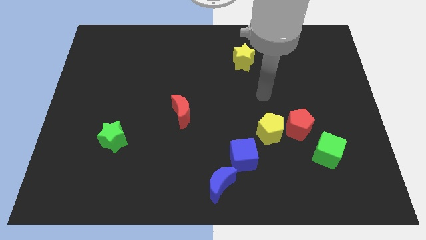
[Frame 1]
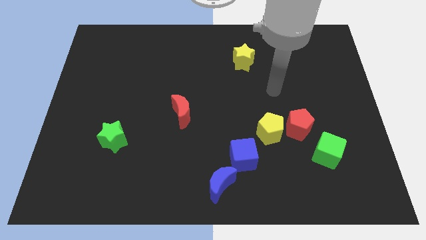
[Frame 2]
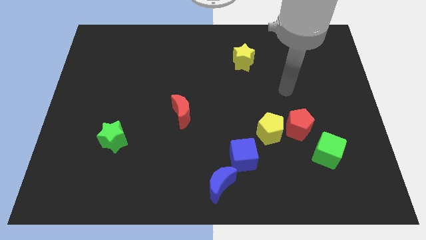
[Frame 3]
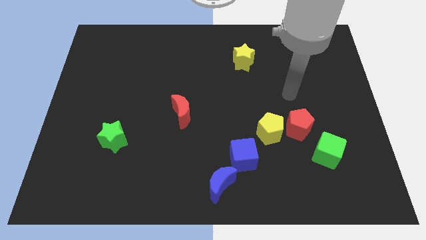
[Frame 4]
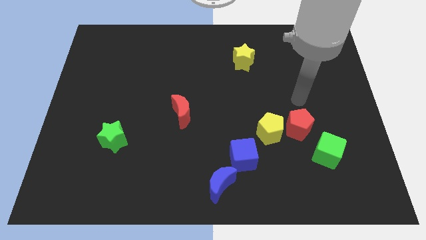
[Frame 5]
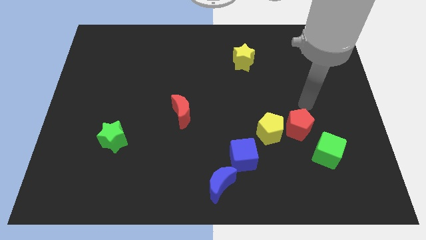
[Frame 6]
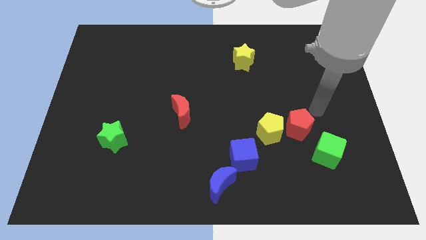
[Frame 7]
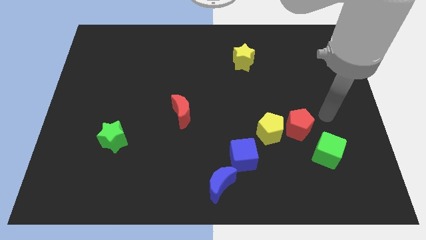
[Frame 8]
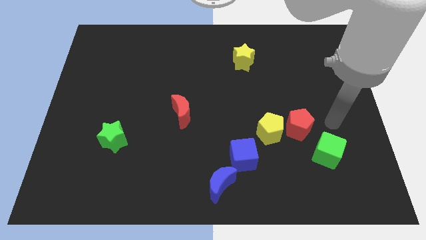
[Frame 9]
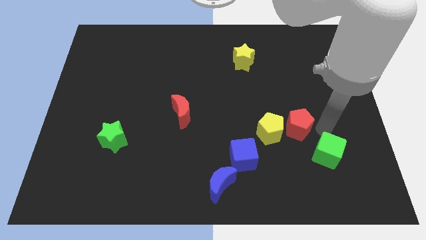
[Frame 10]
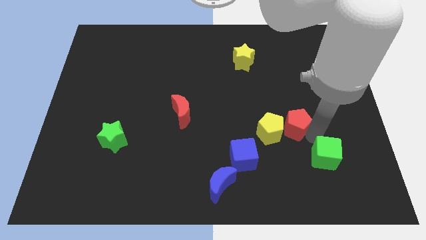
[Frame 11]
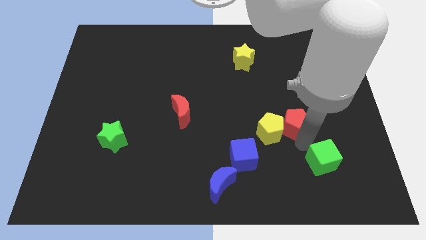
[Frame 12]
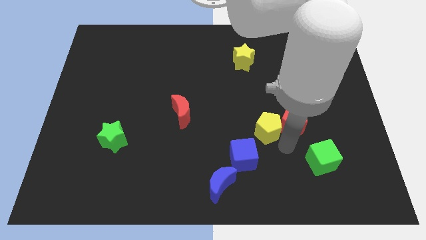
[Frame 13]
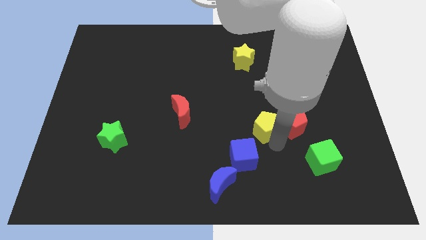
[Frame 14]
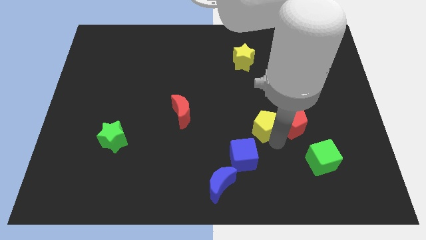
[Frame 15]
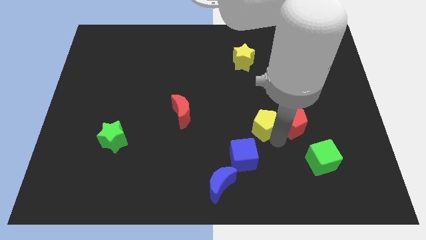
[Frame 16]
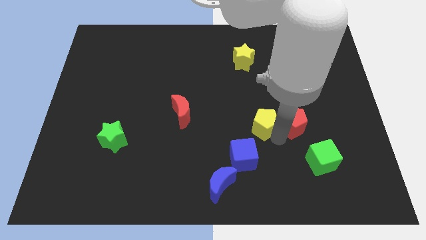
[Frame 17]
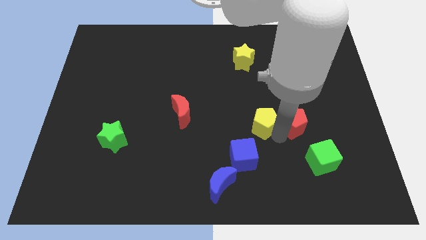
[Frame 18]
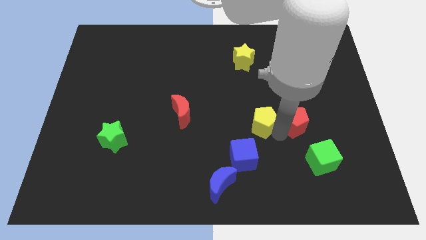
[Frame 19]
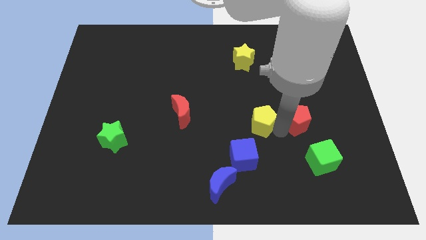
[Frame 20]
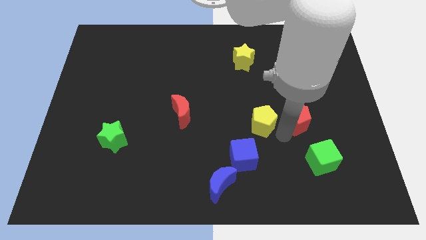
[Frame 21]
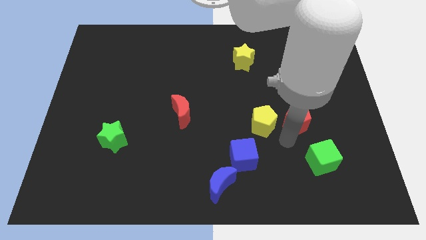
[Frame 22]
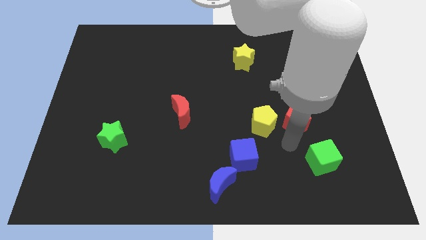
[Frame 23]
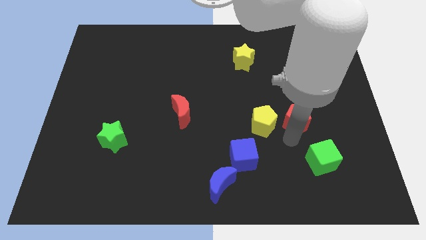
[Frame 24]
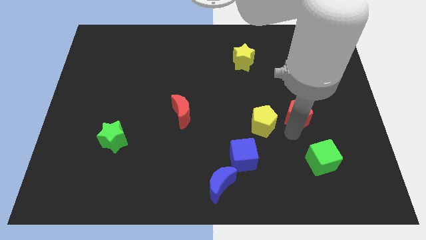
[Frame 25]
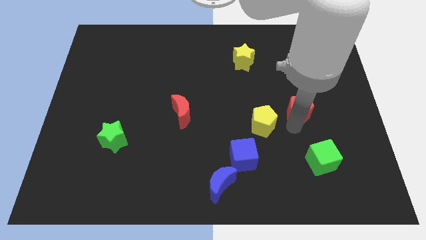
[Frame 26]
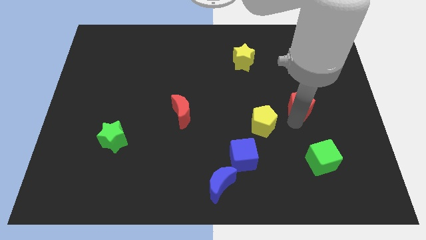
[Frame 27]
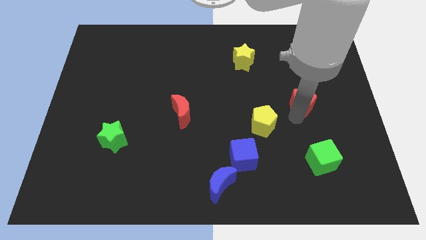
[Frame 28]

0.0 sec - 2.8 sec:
pull the red pentagon apart from the yellow pentagon and green cube

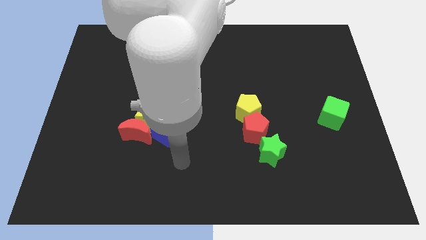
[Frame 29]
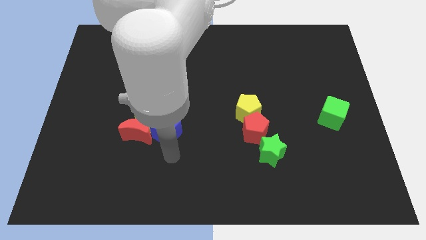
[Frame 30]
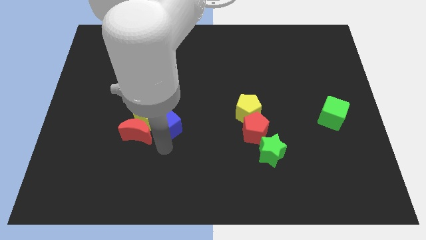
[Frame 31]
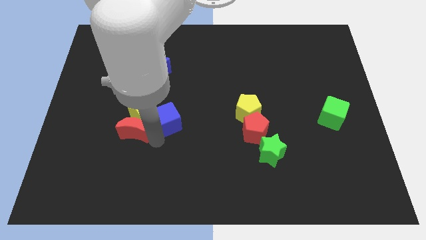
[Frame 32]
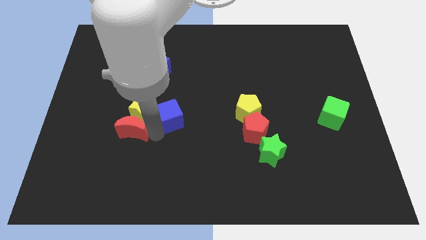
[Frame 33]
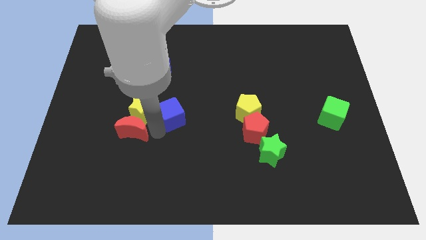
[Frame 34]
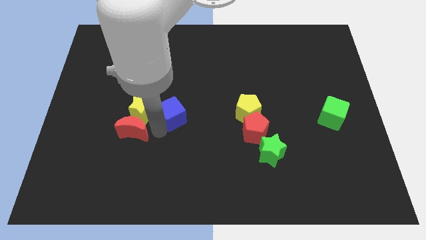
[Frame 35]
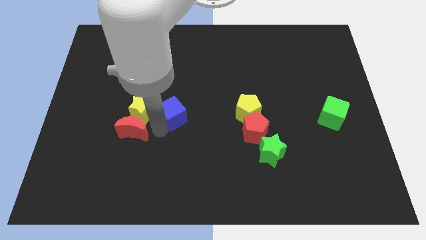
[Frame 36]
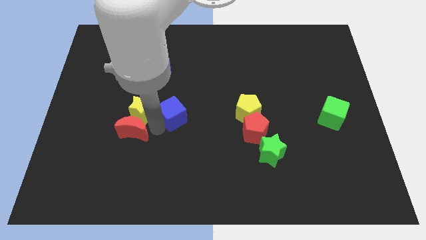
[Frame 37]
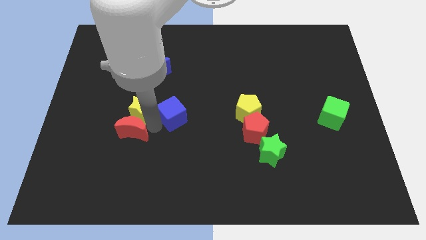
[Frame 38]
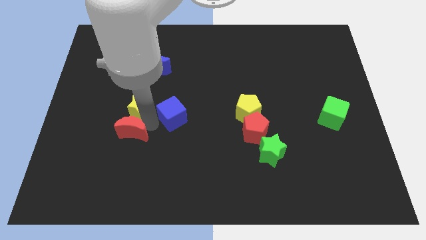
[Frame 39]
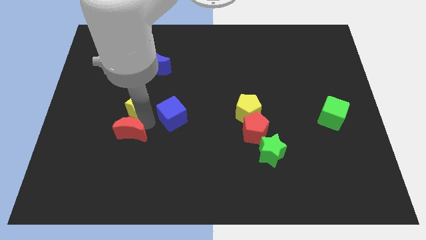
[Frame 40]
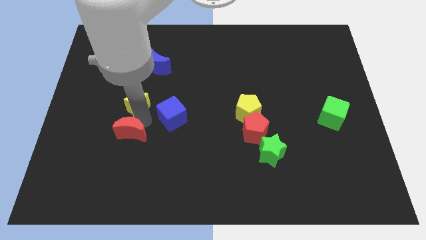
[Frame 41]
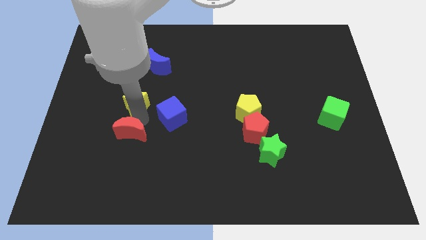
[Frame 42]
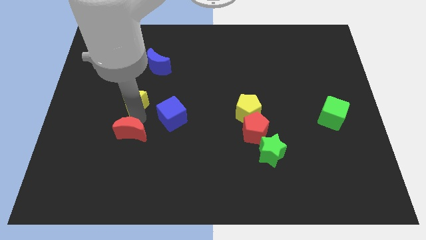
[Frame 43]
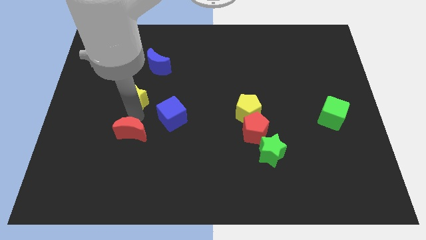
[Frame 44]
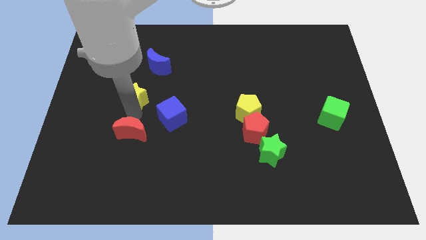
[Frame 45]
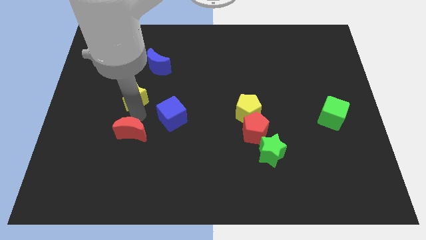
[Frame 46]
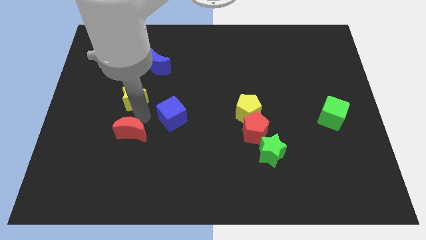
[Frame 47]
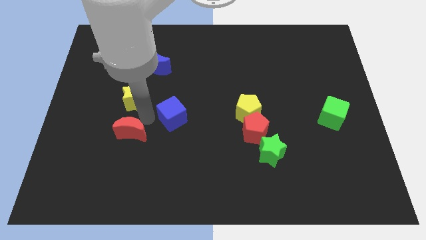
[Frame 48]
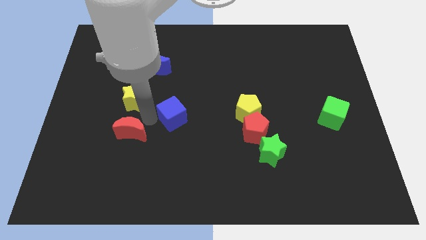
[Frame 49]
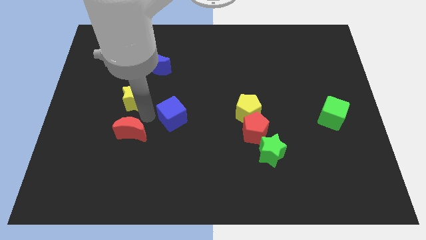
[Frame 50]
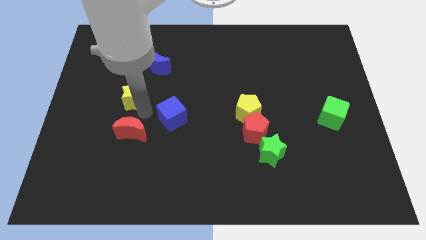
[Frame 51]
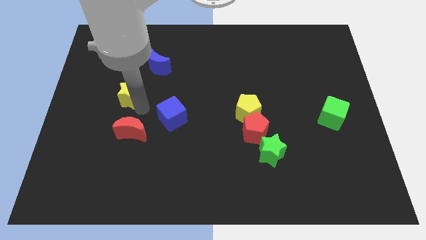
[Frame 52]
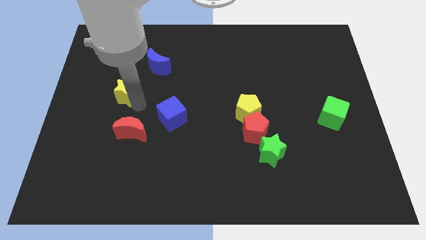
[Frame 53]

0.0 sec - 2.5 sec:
pull the yellow star apart from the red moon and blue cube

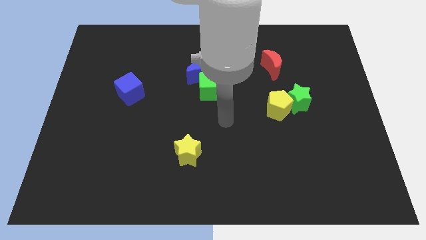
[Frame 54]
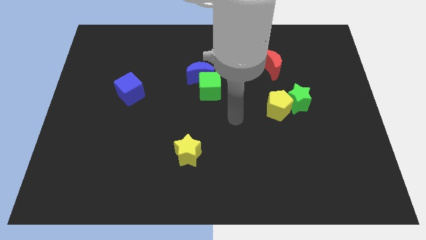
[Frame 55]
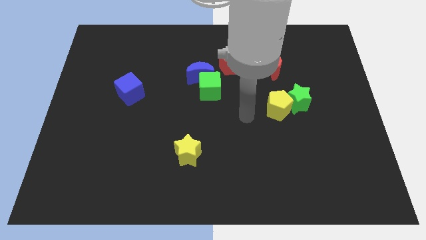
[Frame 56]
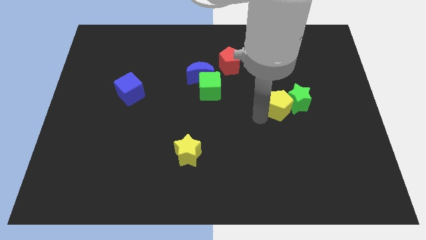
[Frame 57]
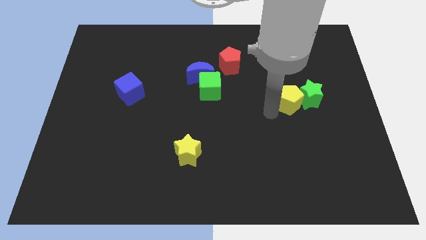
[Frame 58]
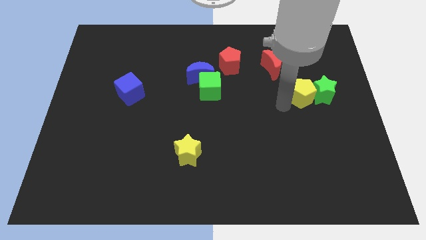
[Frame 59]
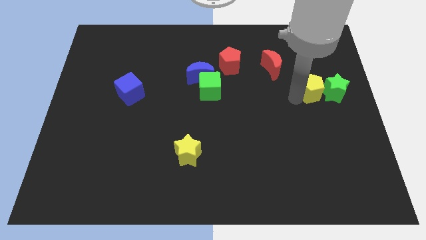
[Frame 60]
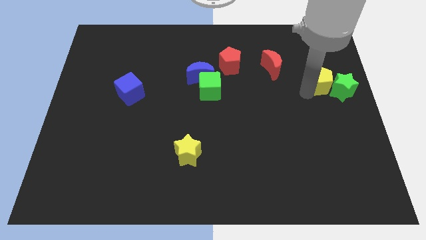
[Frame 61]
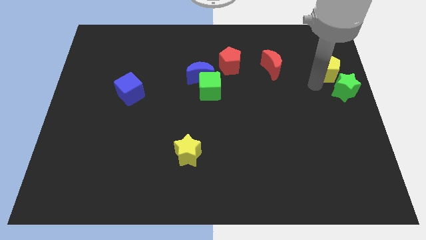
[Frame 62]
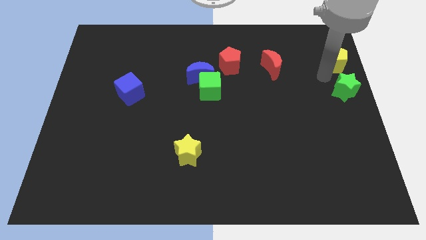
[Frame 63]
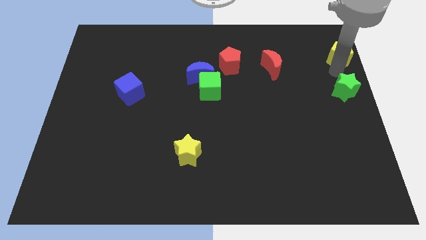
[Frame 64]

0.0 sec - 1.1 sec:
pull the green star apart from the yellow pentagon

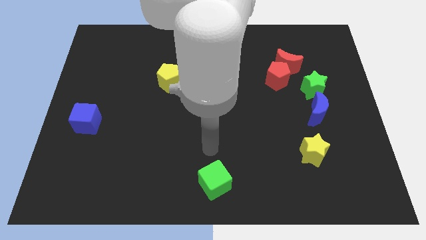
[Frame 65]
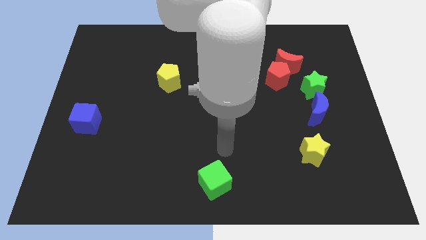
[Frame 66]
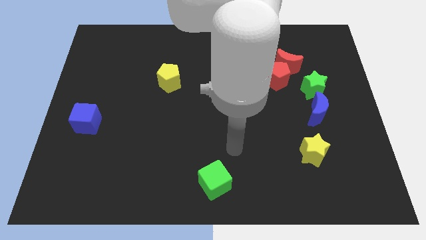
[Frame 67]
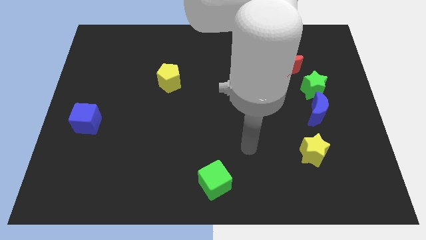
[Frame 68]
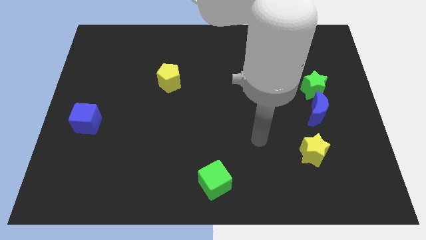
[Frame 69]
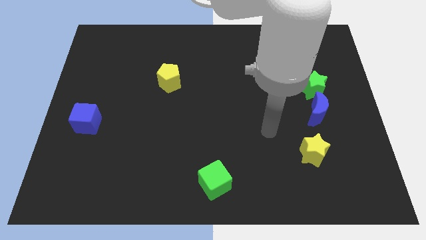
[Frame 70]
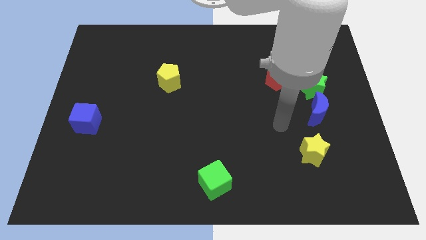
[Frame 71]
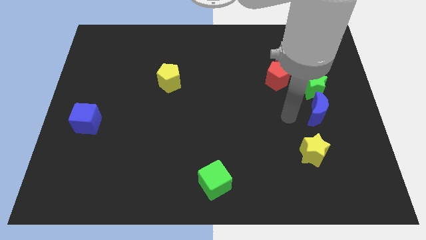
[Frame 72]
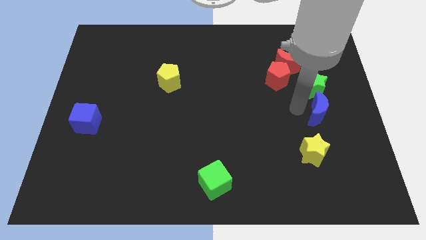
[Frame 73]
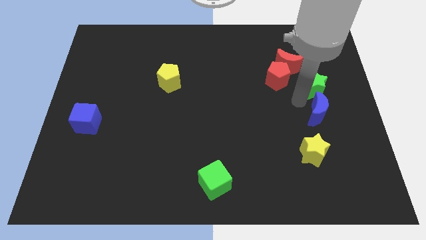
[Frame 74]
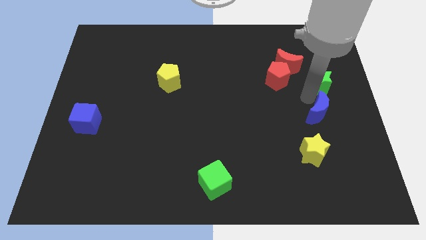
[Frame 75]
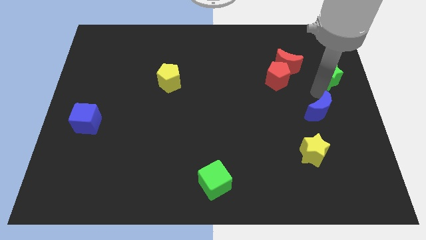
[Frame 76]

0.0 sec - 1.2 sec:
move the blue moon away from the green star

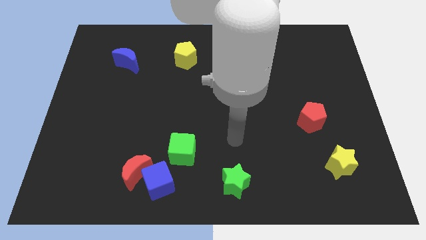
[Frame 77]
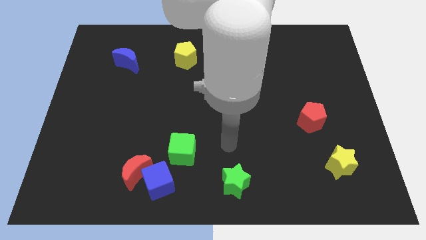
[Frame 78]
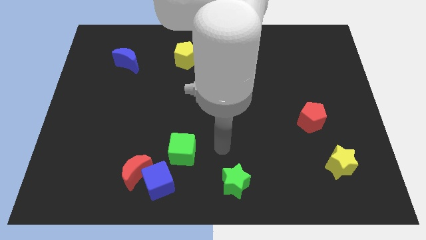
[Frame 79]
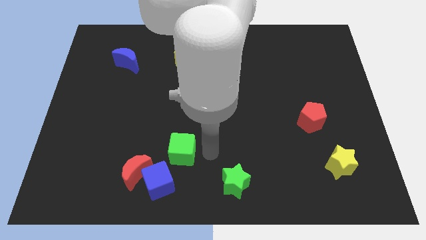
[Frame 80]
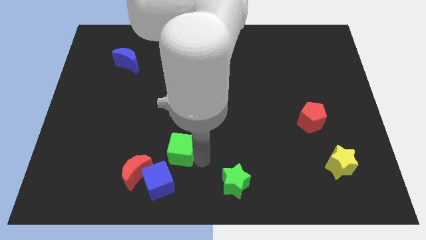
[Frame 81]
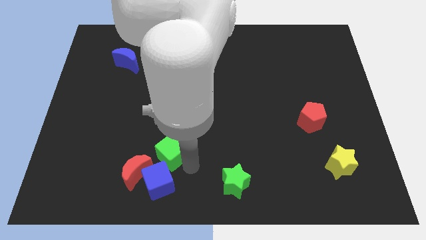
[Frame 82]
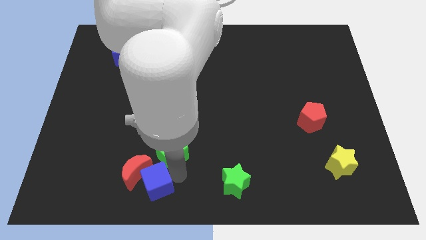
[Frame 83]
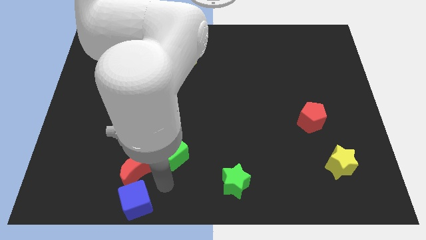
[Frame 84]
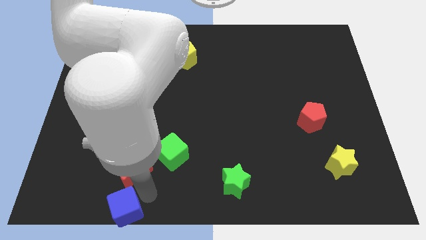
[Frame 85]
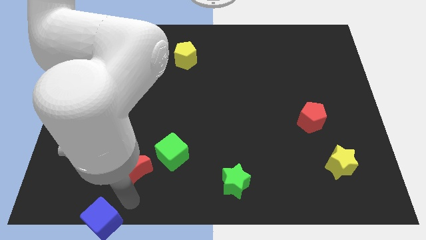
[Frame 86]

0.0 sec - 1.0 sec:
pull the red moon apart from the blue cube

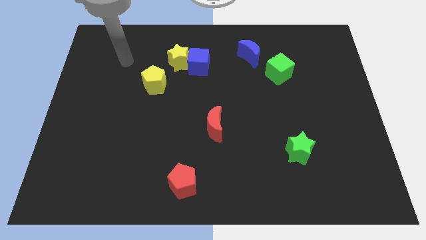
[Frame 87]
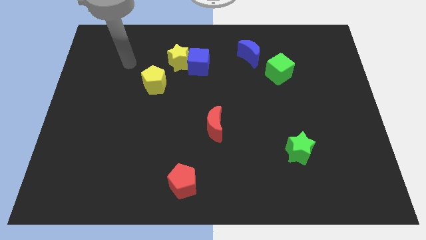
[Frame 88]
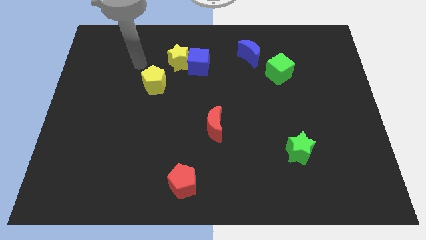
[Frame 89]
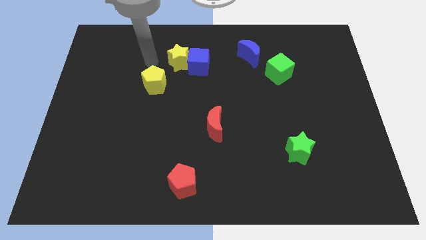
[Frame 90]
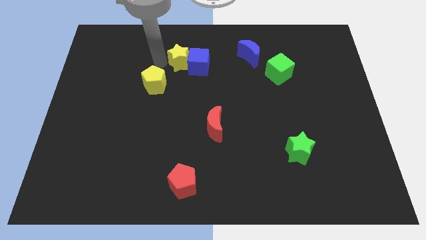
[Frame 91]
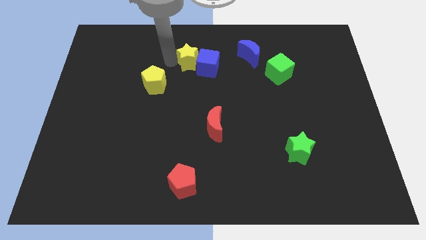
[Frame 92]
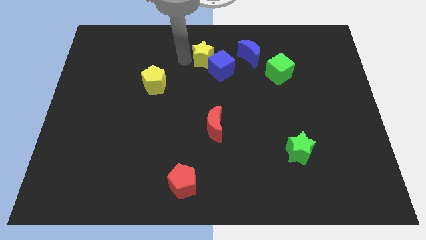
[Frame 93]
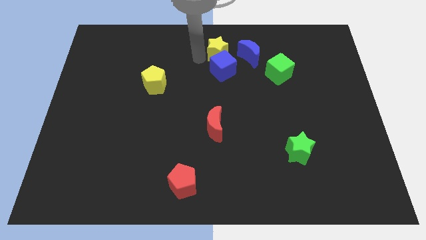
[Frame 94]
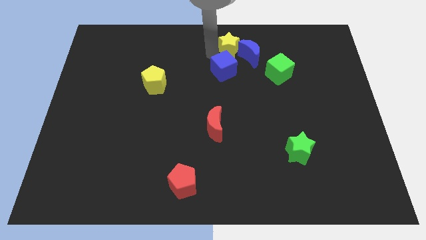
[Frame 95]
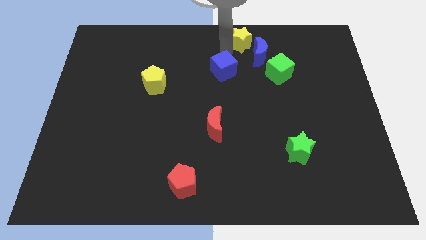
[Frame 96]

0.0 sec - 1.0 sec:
separate the blue cube from the yellow star
